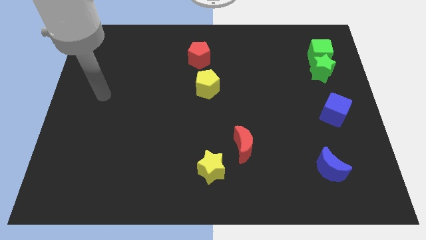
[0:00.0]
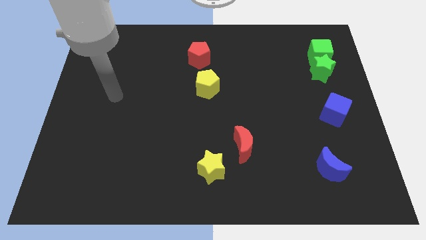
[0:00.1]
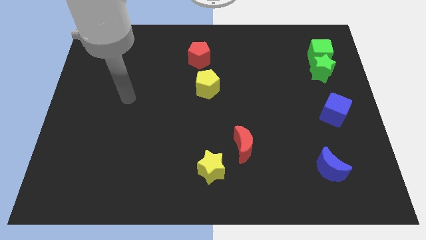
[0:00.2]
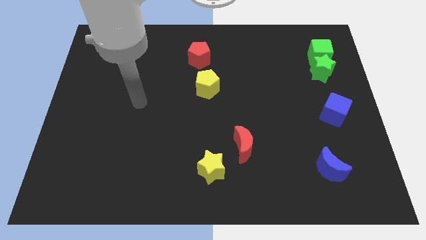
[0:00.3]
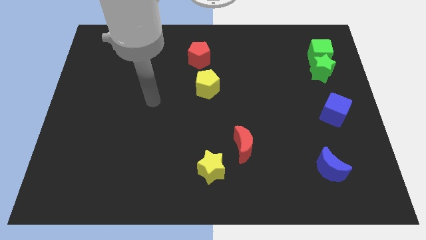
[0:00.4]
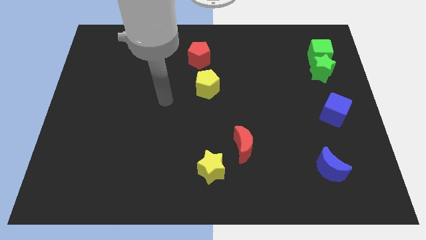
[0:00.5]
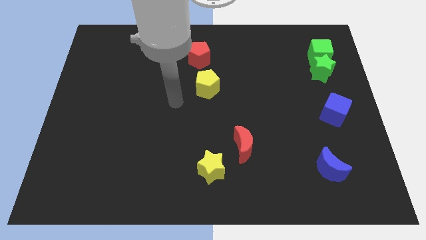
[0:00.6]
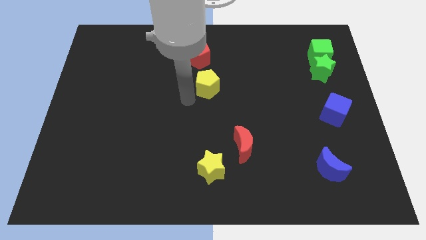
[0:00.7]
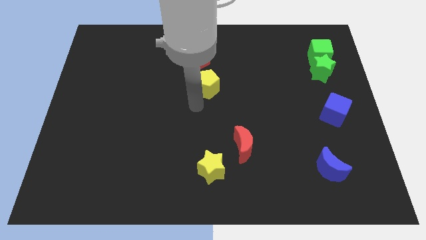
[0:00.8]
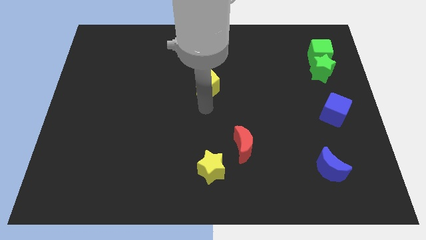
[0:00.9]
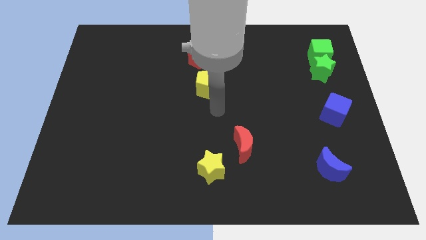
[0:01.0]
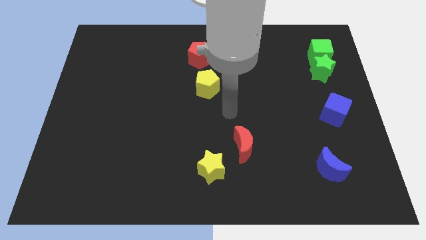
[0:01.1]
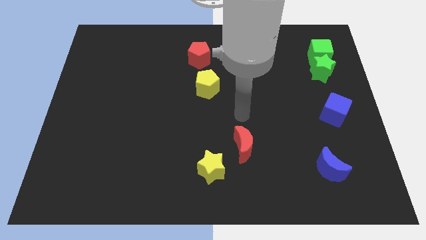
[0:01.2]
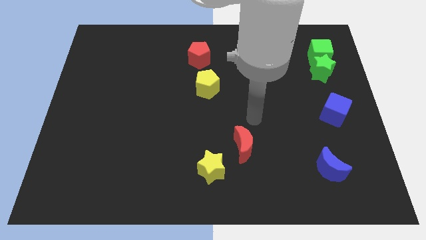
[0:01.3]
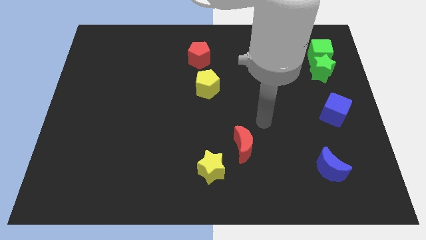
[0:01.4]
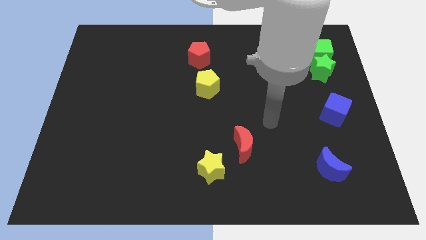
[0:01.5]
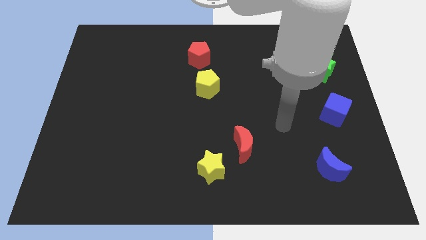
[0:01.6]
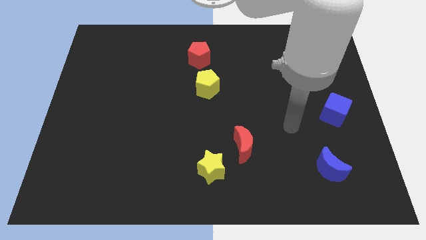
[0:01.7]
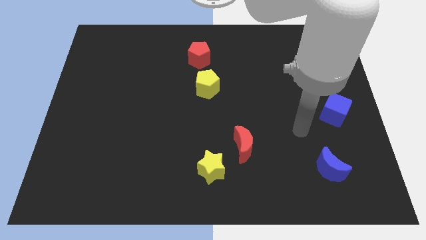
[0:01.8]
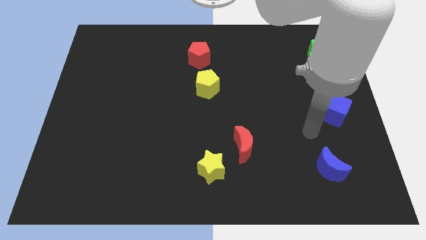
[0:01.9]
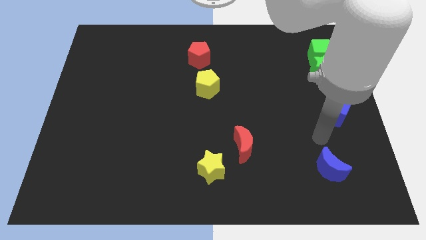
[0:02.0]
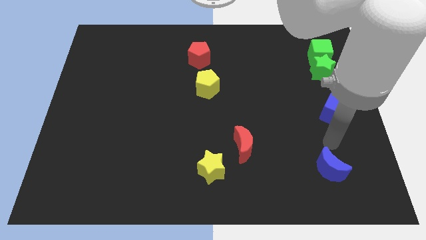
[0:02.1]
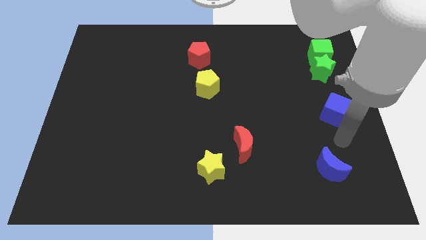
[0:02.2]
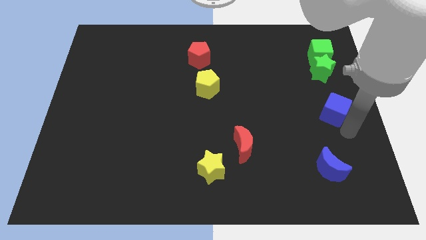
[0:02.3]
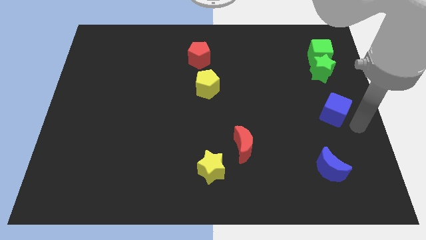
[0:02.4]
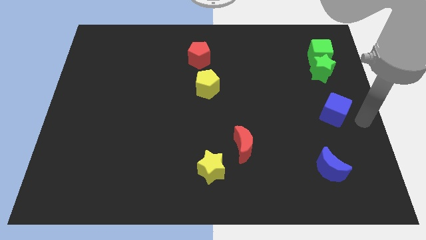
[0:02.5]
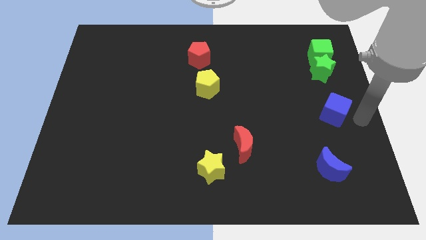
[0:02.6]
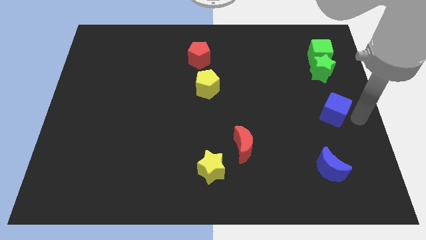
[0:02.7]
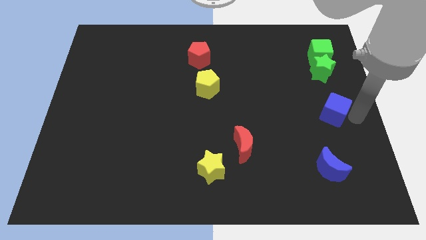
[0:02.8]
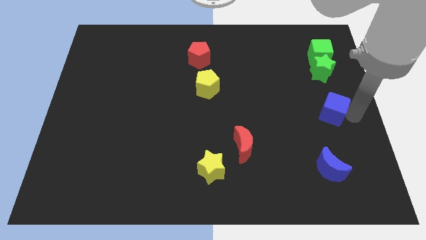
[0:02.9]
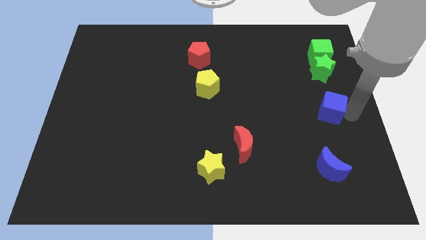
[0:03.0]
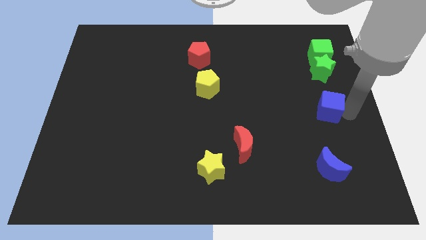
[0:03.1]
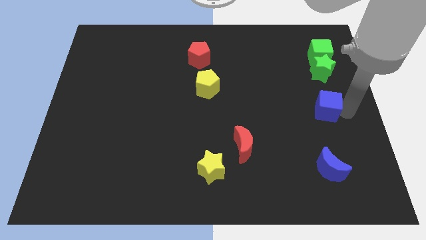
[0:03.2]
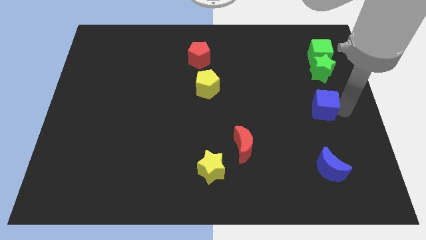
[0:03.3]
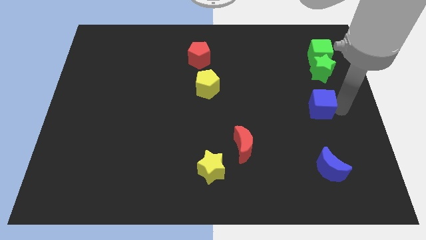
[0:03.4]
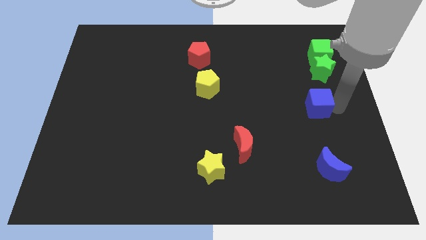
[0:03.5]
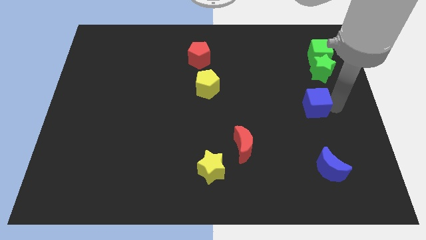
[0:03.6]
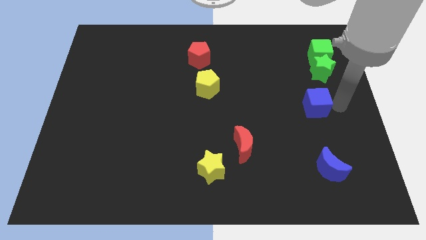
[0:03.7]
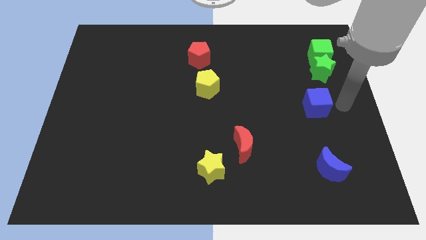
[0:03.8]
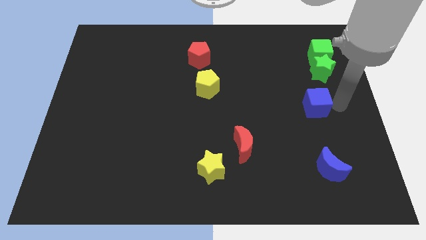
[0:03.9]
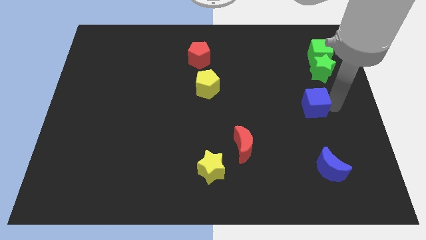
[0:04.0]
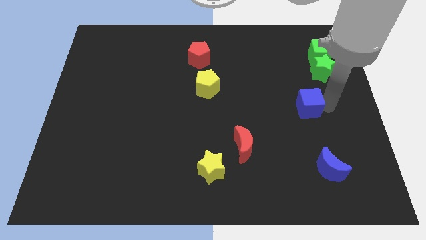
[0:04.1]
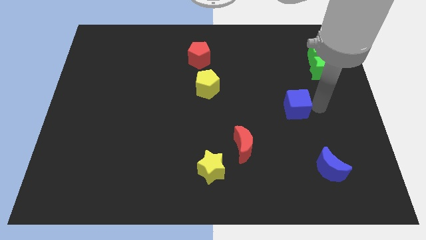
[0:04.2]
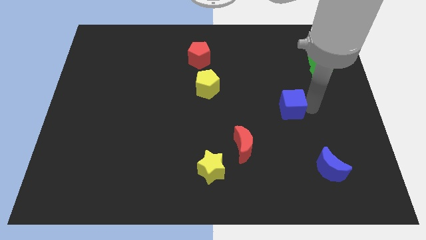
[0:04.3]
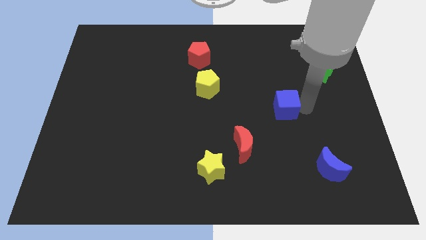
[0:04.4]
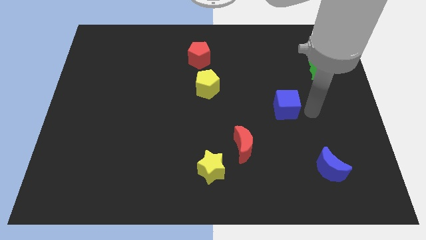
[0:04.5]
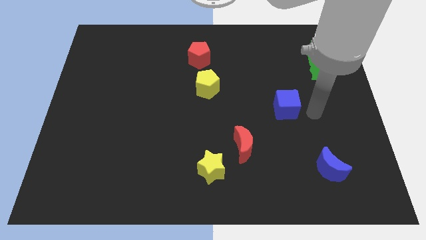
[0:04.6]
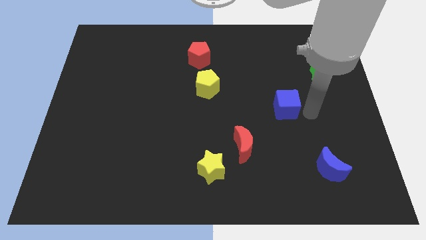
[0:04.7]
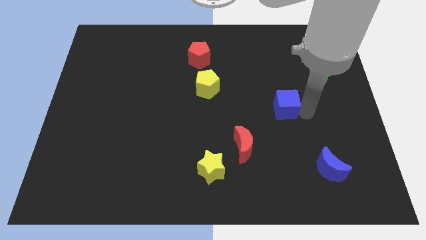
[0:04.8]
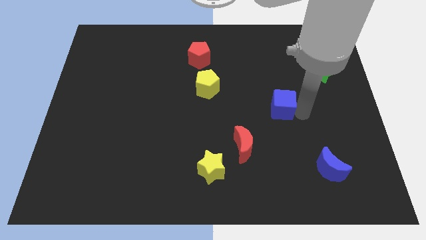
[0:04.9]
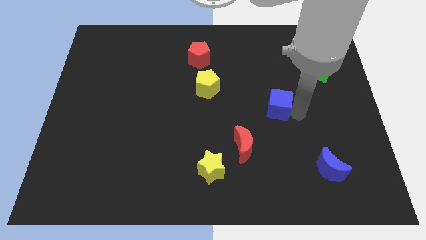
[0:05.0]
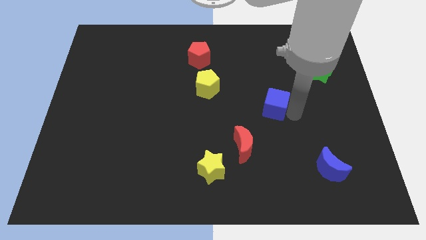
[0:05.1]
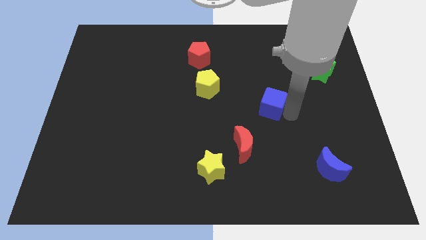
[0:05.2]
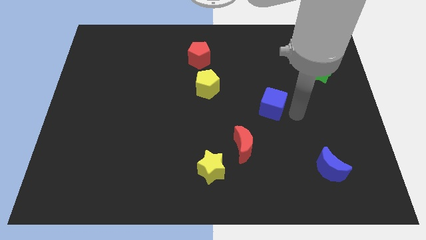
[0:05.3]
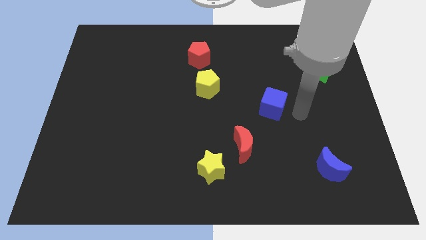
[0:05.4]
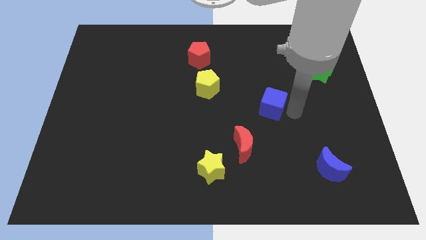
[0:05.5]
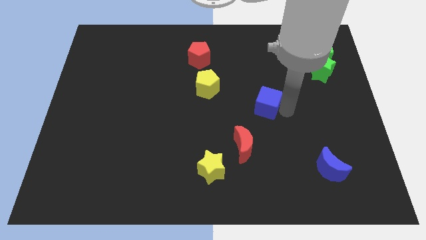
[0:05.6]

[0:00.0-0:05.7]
move the blue cube to the center
